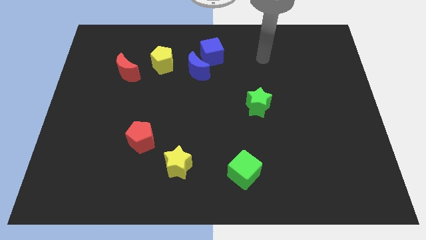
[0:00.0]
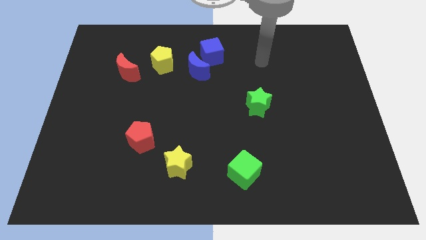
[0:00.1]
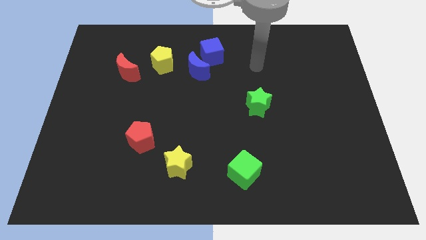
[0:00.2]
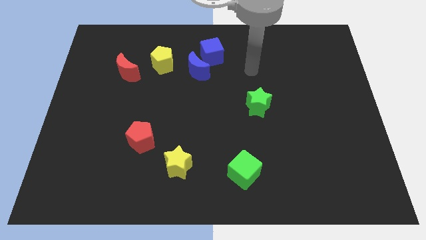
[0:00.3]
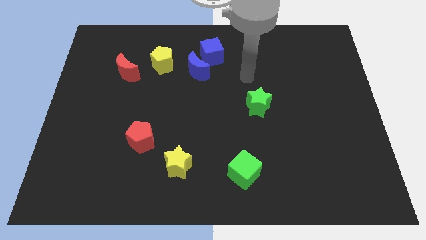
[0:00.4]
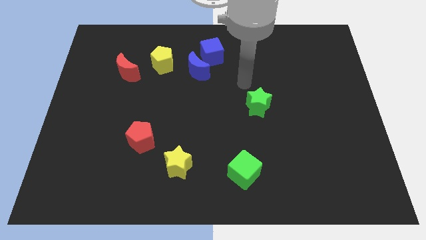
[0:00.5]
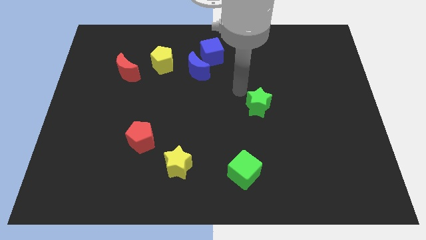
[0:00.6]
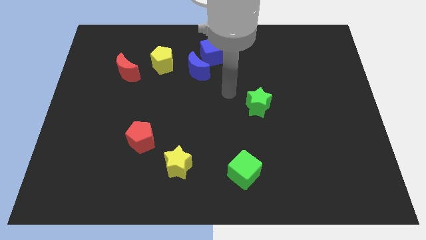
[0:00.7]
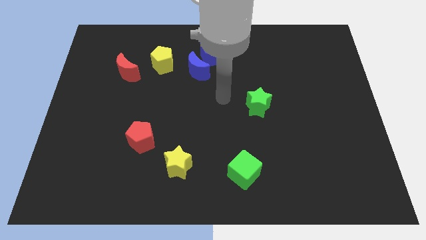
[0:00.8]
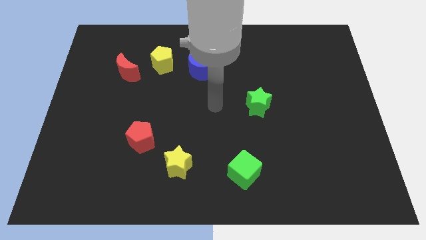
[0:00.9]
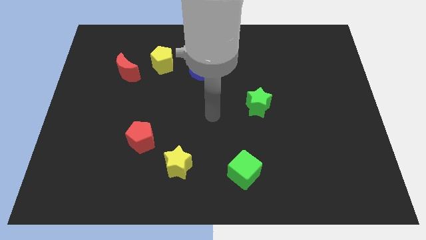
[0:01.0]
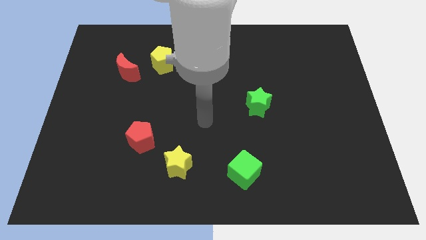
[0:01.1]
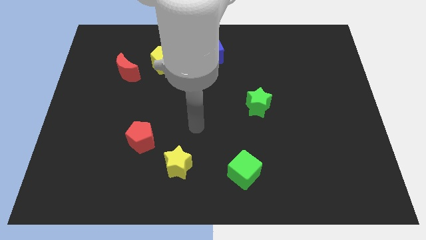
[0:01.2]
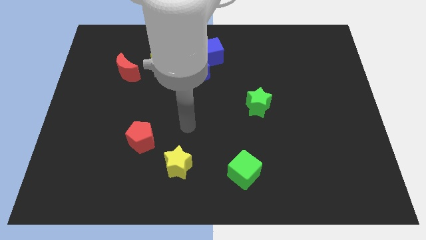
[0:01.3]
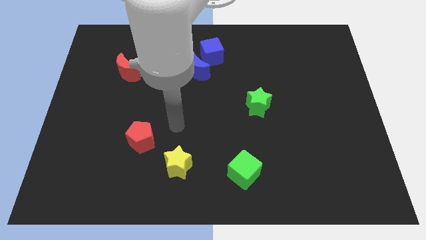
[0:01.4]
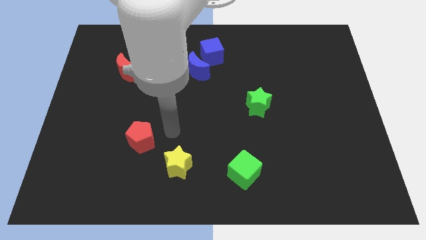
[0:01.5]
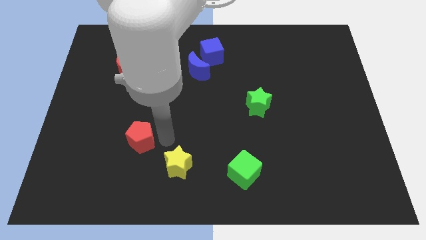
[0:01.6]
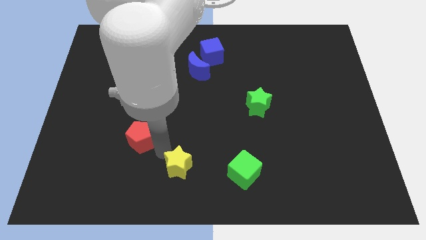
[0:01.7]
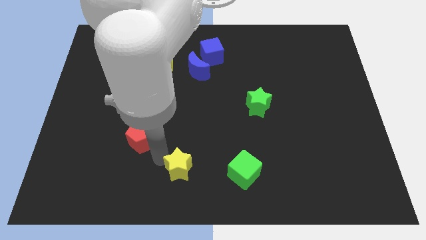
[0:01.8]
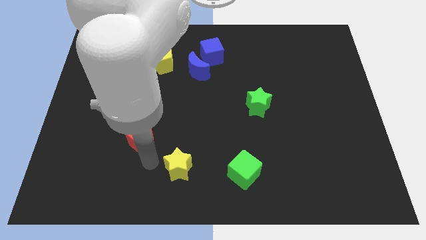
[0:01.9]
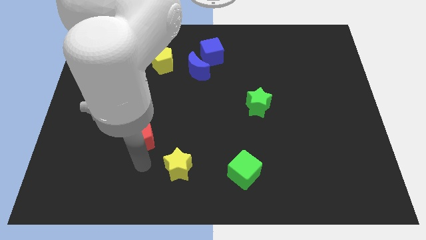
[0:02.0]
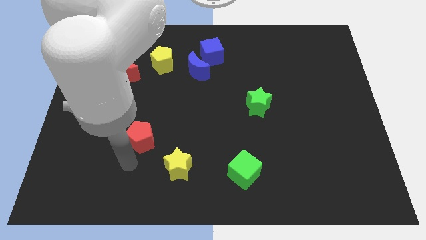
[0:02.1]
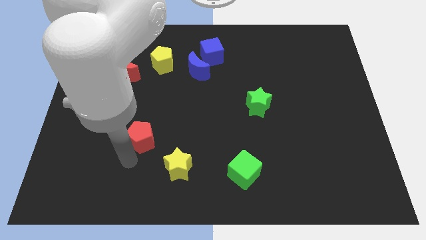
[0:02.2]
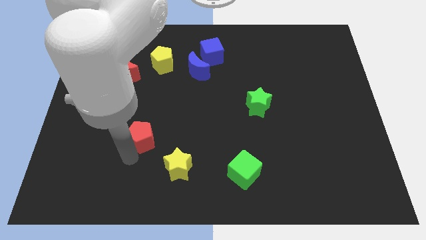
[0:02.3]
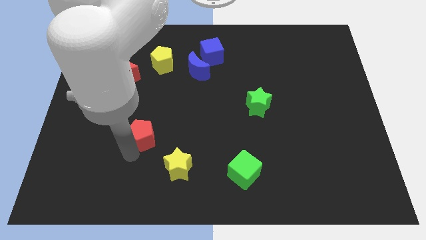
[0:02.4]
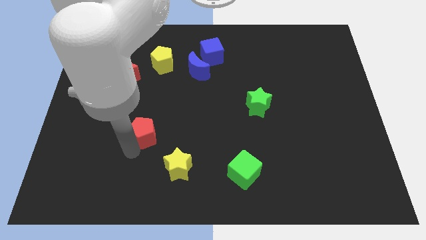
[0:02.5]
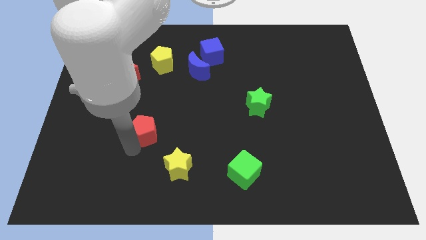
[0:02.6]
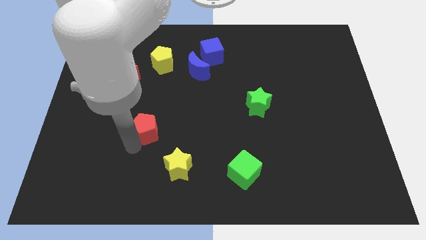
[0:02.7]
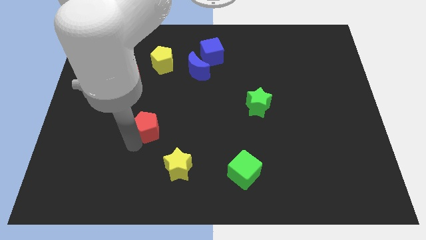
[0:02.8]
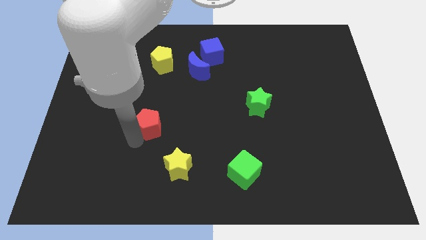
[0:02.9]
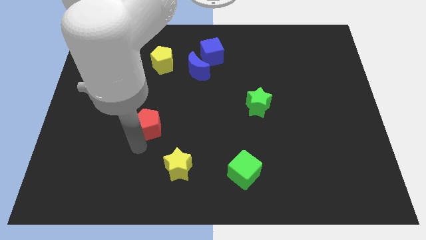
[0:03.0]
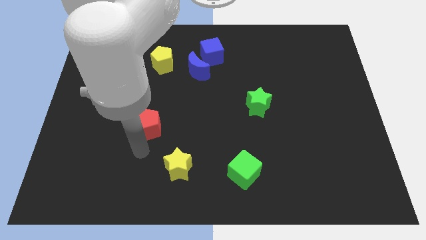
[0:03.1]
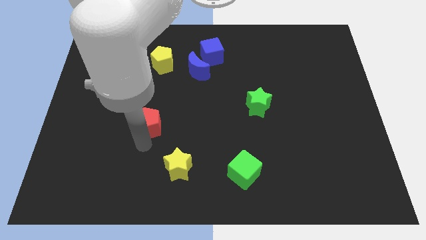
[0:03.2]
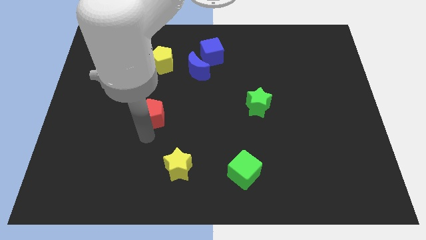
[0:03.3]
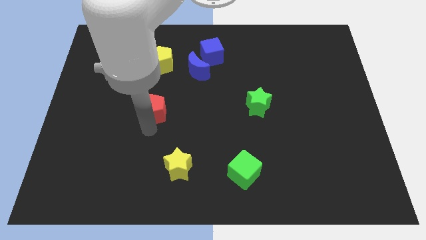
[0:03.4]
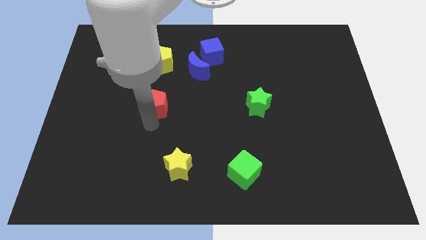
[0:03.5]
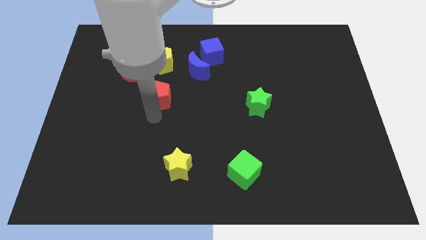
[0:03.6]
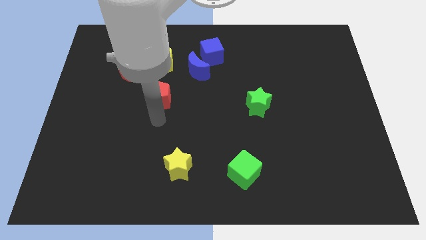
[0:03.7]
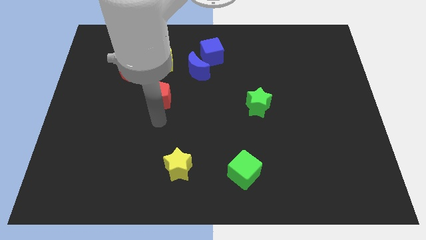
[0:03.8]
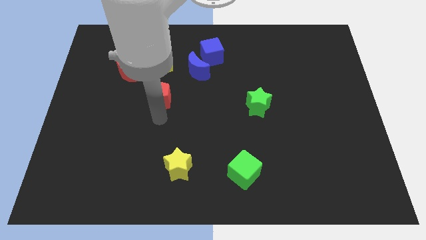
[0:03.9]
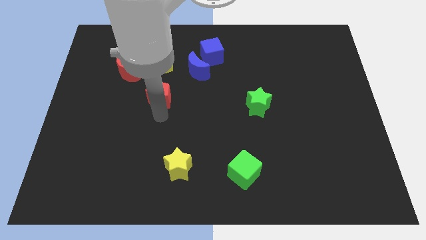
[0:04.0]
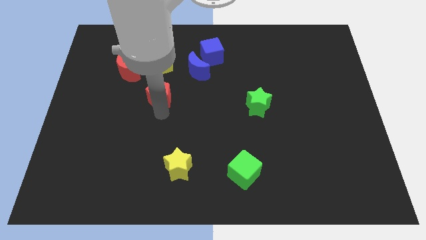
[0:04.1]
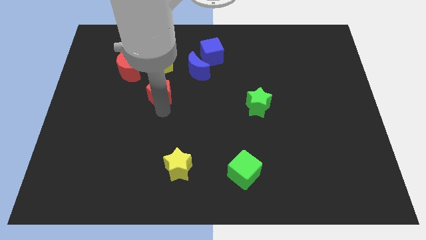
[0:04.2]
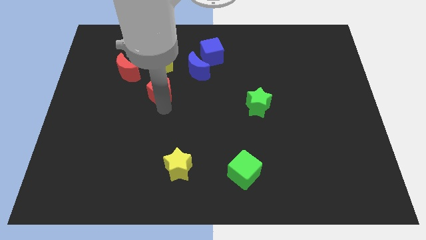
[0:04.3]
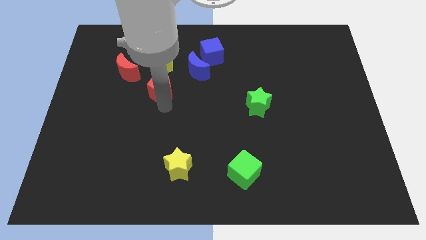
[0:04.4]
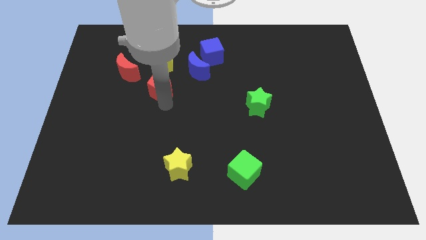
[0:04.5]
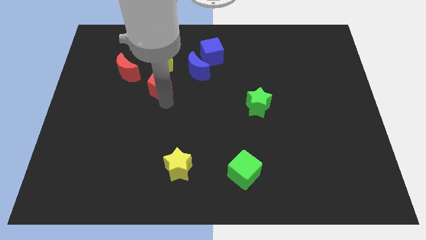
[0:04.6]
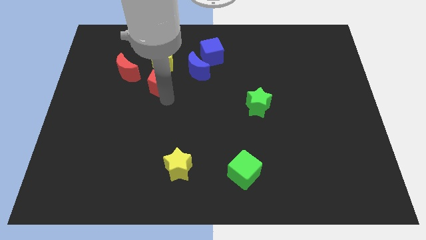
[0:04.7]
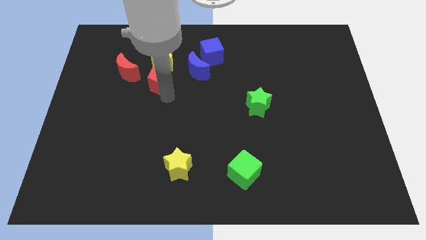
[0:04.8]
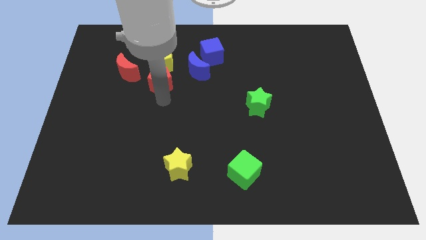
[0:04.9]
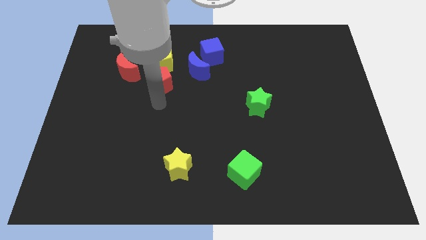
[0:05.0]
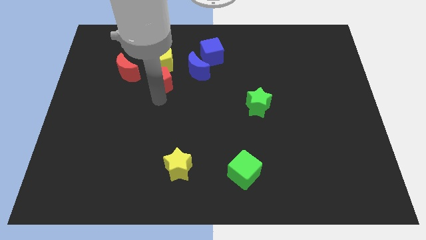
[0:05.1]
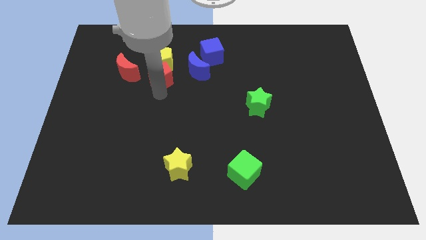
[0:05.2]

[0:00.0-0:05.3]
slide the red pentagon to the yellow pentagon
